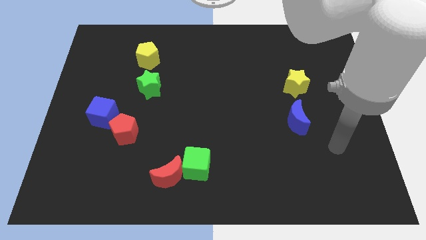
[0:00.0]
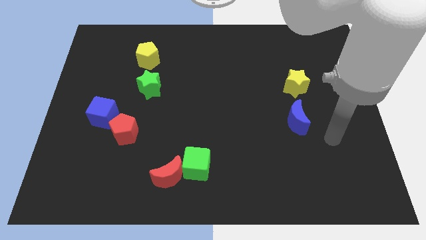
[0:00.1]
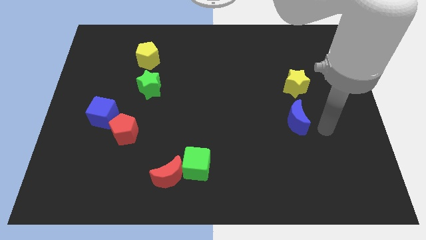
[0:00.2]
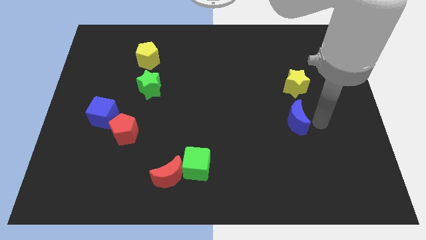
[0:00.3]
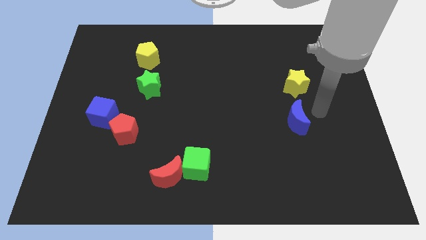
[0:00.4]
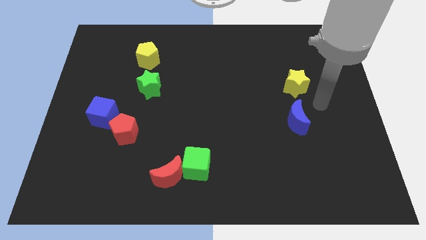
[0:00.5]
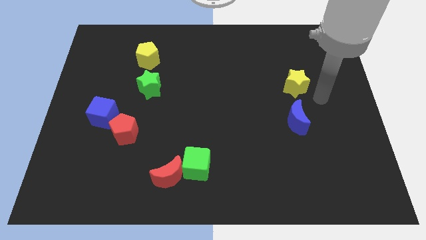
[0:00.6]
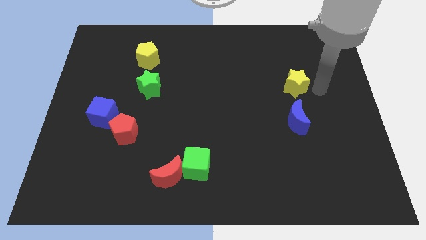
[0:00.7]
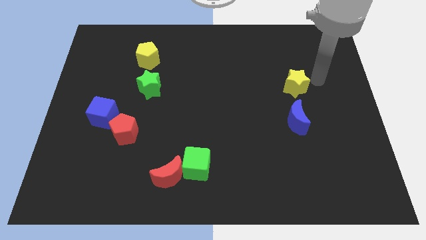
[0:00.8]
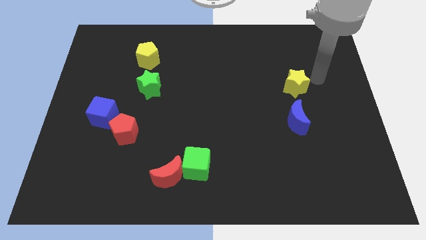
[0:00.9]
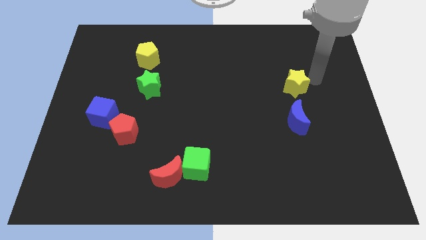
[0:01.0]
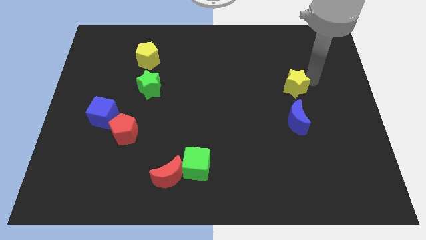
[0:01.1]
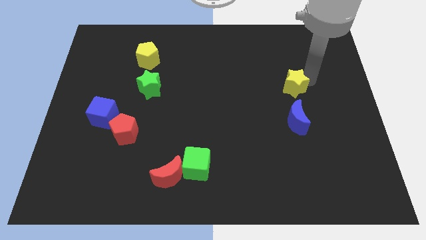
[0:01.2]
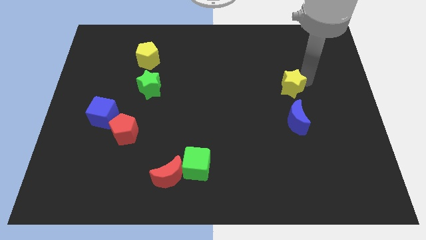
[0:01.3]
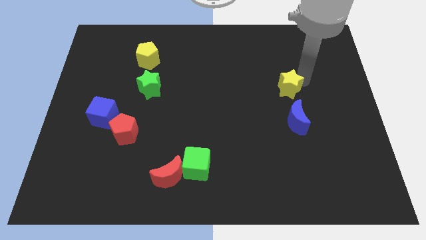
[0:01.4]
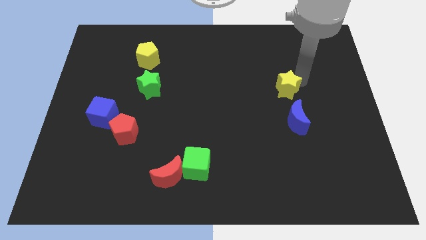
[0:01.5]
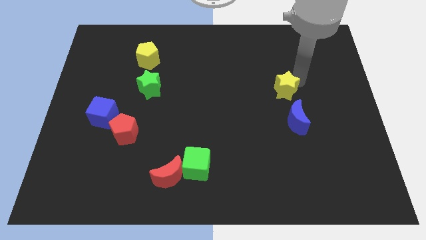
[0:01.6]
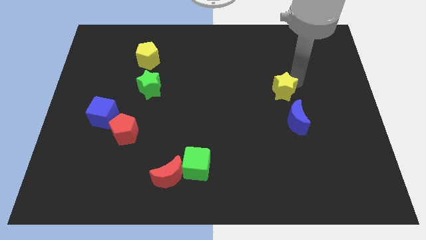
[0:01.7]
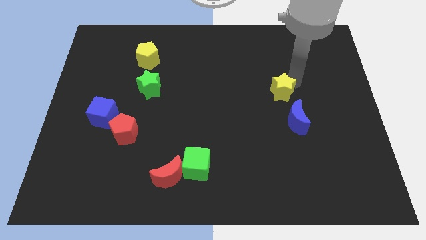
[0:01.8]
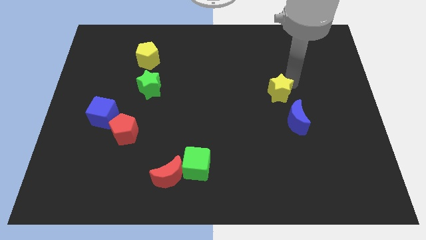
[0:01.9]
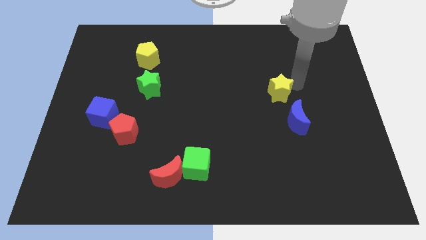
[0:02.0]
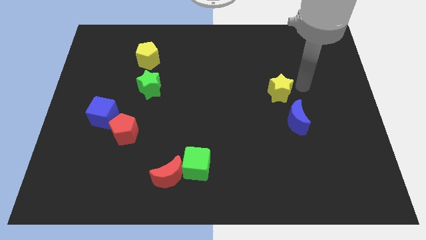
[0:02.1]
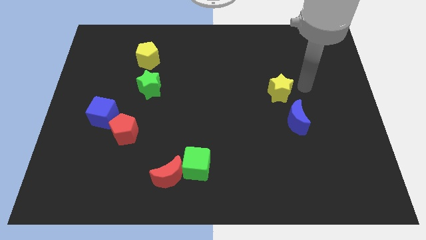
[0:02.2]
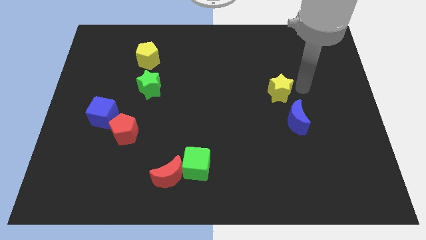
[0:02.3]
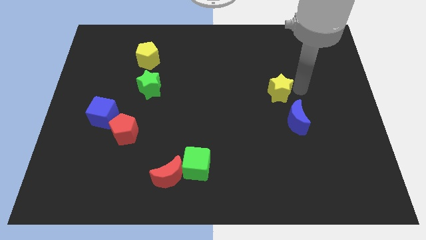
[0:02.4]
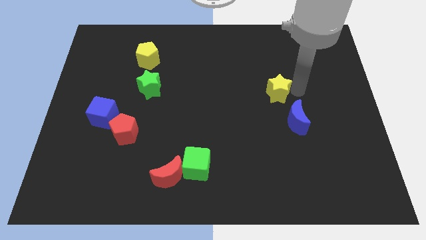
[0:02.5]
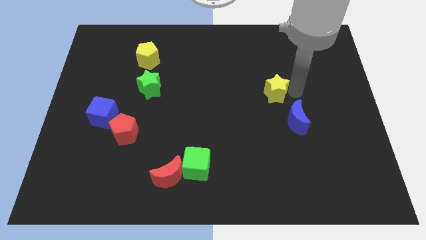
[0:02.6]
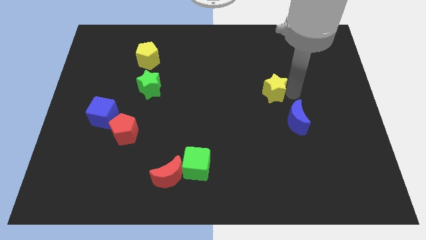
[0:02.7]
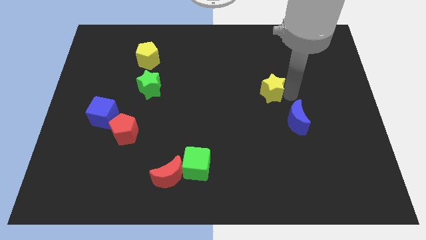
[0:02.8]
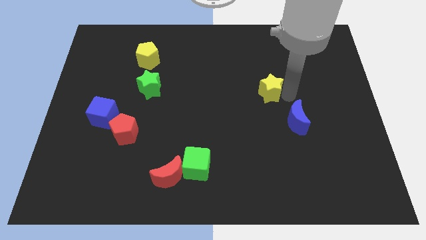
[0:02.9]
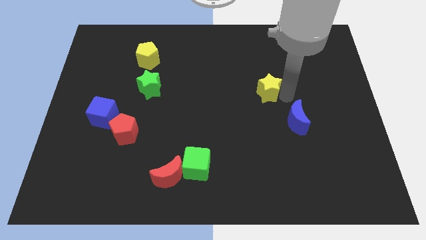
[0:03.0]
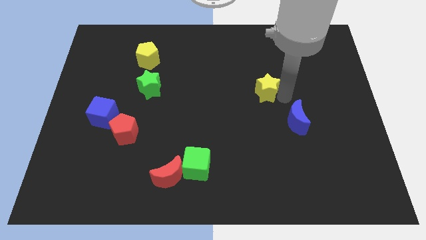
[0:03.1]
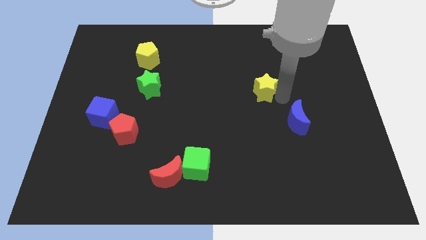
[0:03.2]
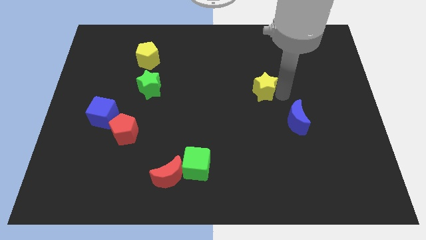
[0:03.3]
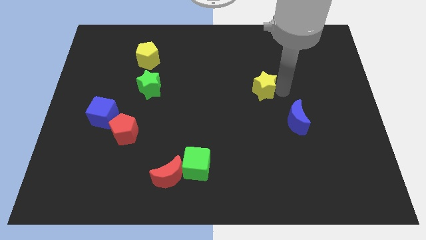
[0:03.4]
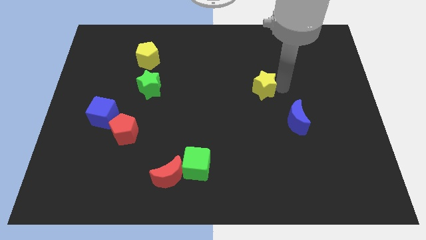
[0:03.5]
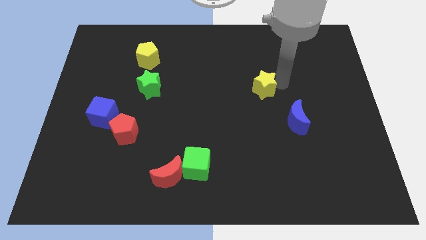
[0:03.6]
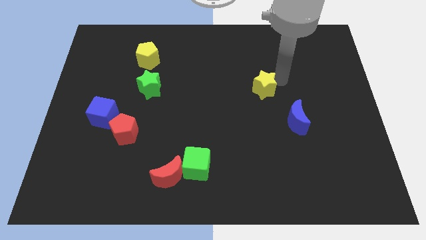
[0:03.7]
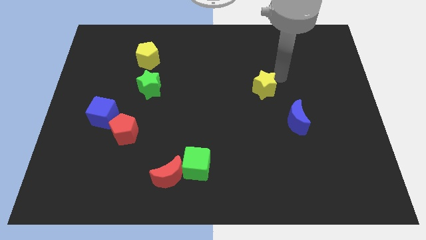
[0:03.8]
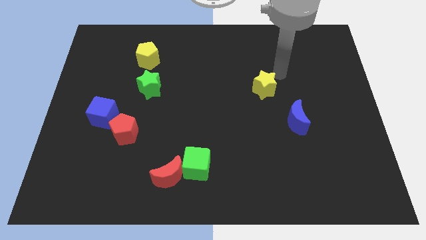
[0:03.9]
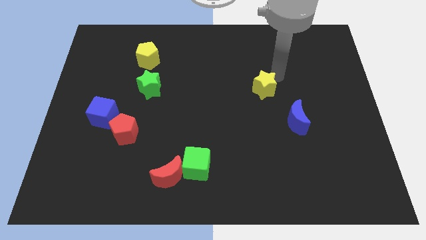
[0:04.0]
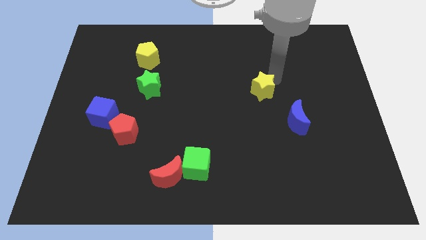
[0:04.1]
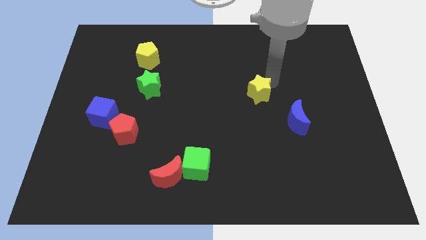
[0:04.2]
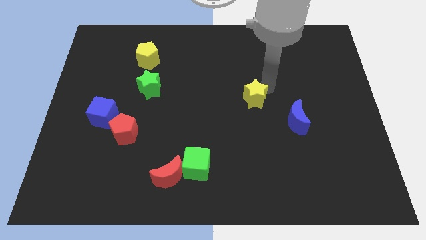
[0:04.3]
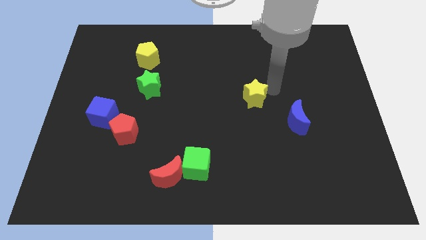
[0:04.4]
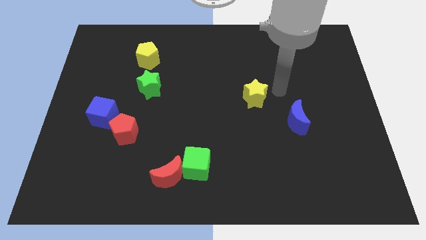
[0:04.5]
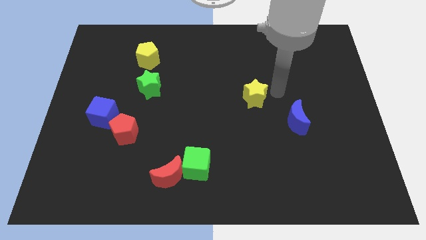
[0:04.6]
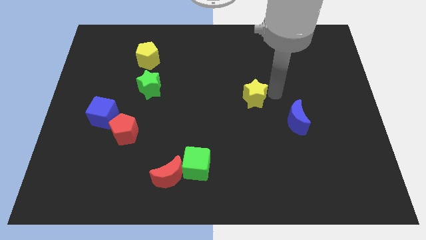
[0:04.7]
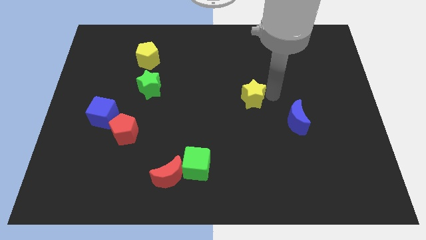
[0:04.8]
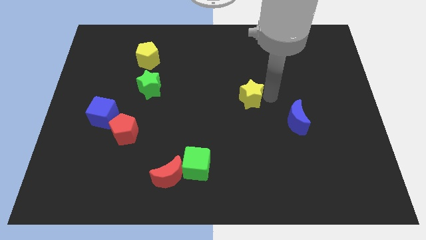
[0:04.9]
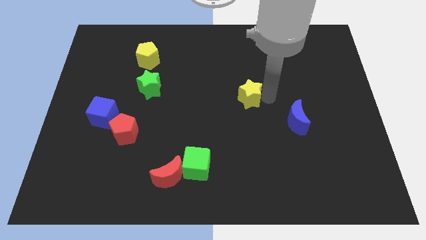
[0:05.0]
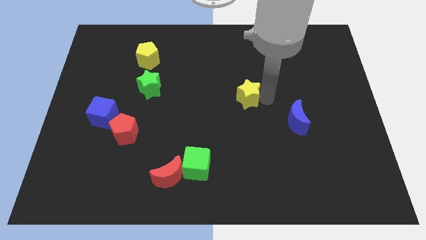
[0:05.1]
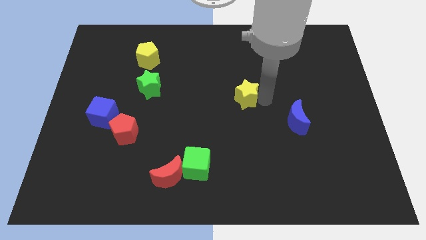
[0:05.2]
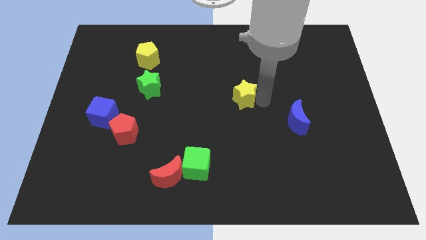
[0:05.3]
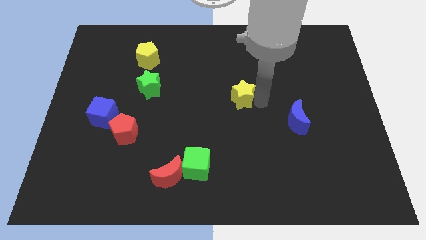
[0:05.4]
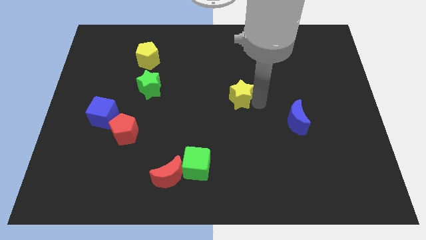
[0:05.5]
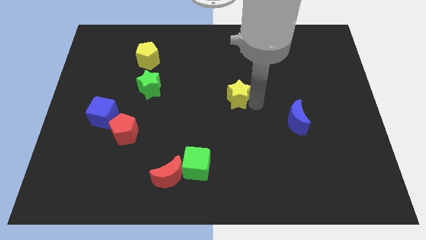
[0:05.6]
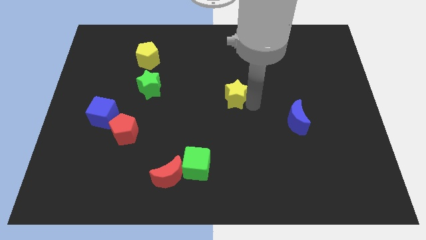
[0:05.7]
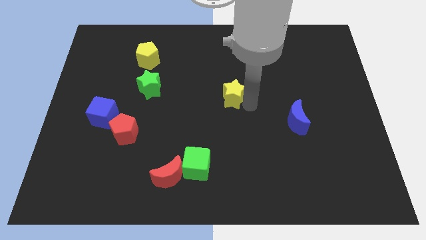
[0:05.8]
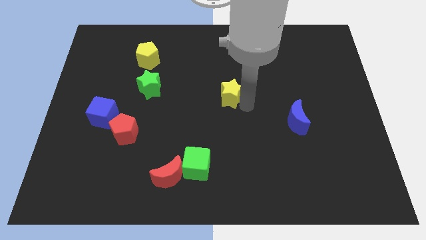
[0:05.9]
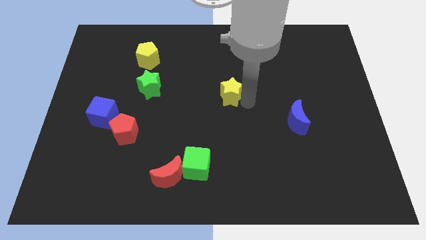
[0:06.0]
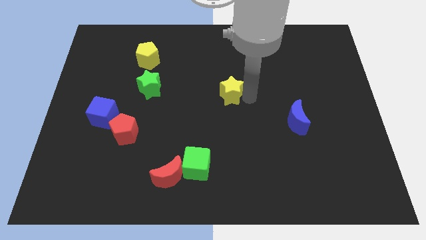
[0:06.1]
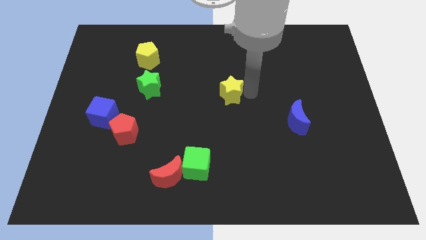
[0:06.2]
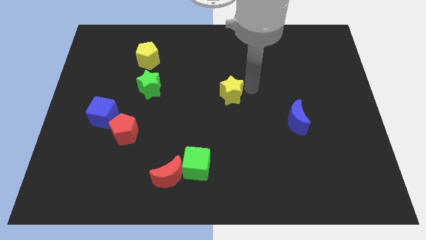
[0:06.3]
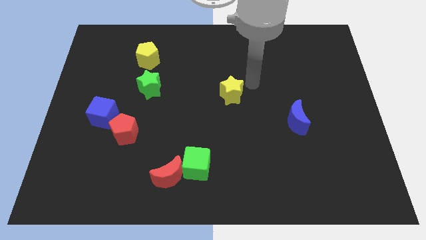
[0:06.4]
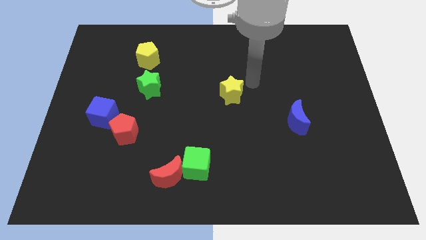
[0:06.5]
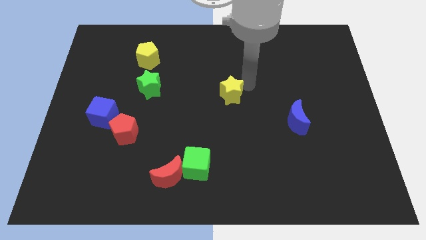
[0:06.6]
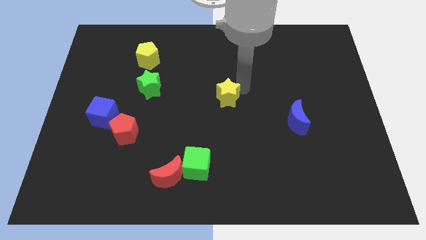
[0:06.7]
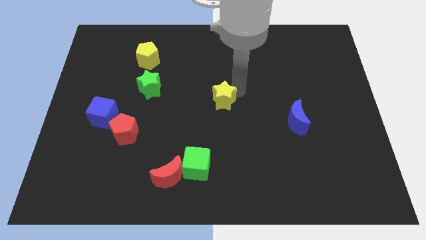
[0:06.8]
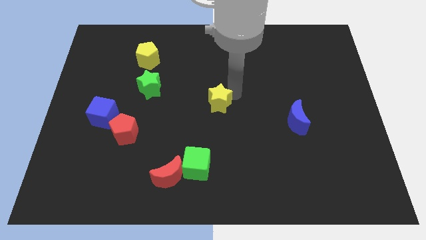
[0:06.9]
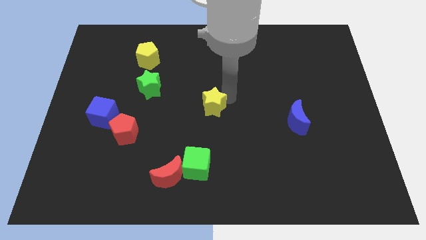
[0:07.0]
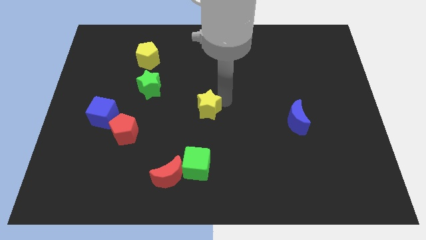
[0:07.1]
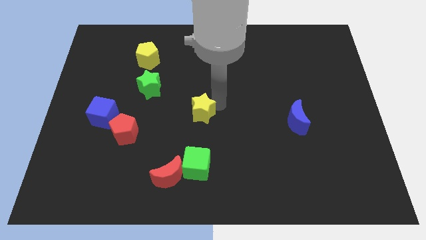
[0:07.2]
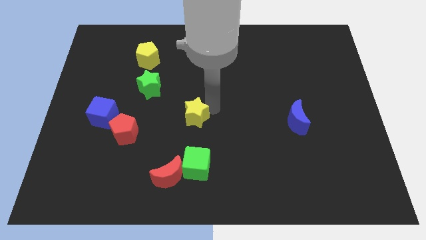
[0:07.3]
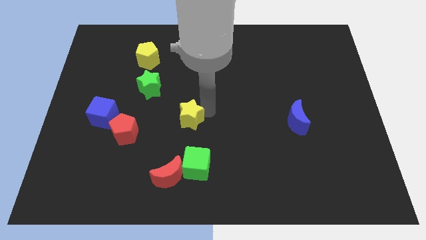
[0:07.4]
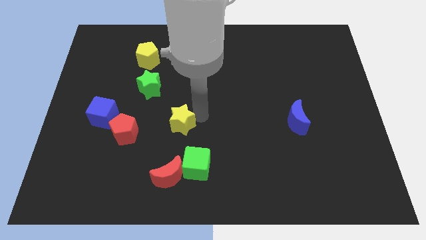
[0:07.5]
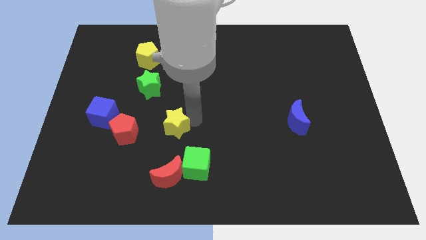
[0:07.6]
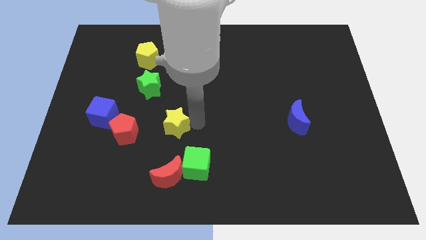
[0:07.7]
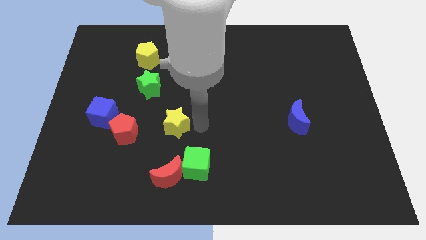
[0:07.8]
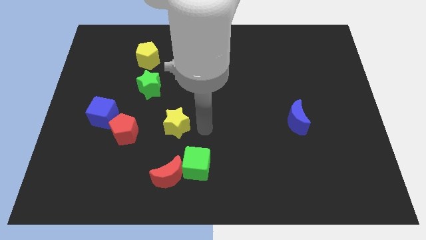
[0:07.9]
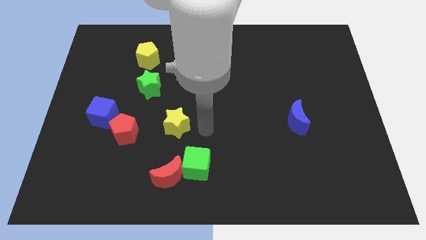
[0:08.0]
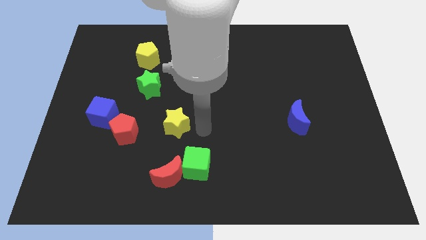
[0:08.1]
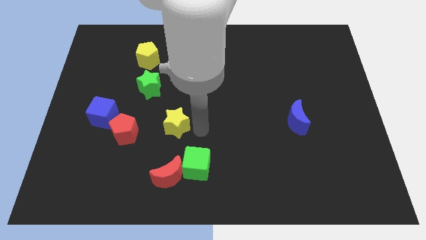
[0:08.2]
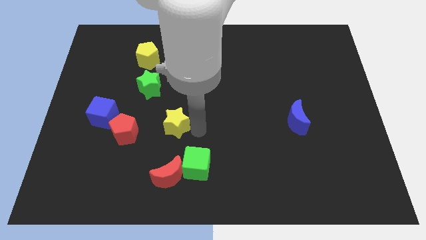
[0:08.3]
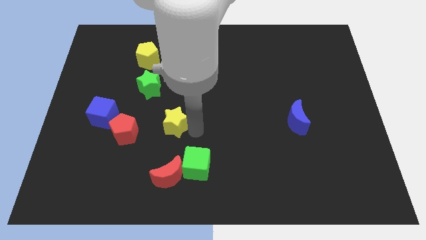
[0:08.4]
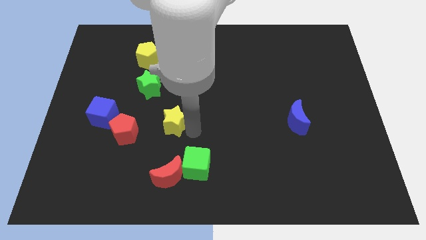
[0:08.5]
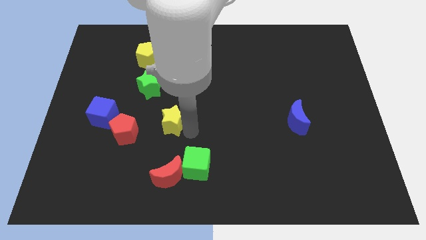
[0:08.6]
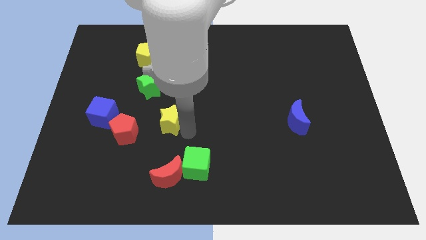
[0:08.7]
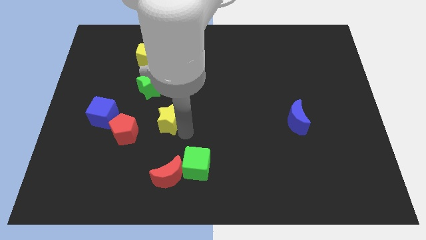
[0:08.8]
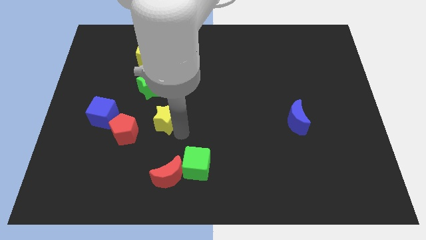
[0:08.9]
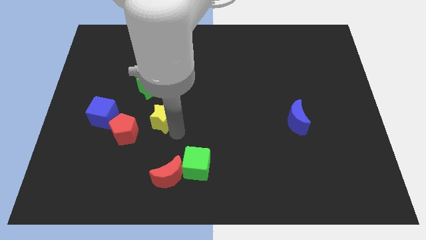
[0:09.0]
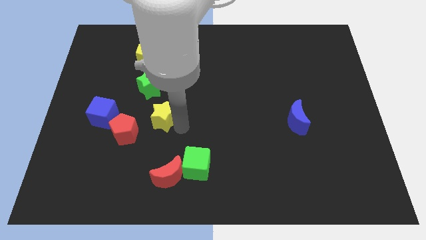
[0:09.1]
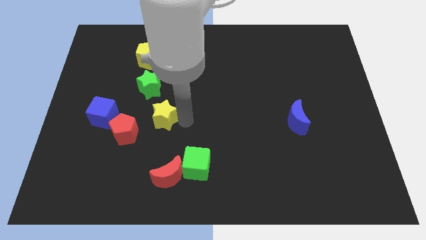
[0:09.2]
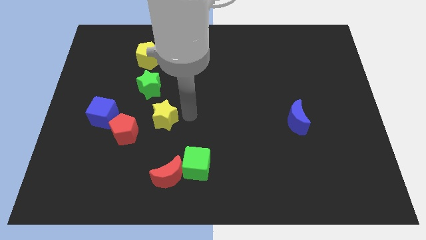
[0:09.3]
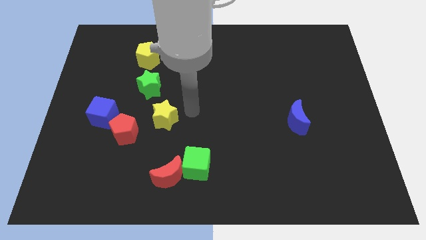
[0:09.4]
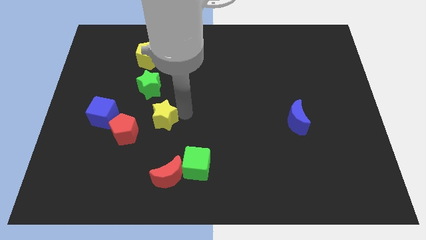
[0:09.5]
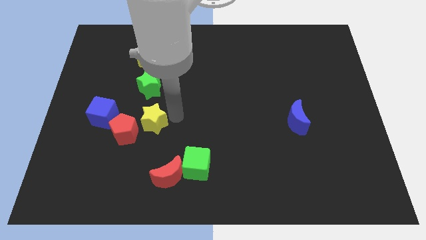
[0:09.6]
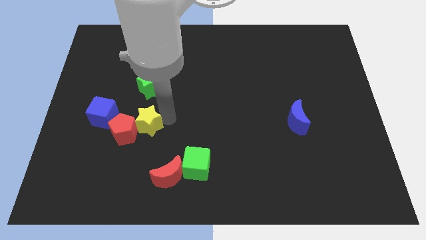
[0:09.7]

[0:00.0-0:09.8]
slide the yellow star to the red pentagon
